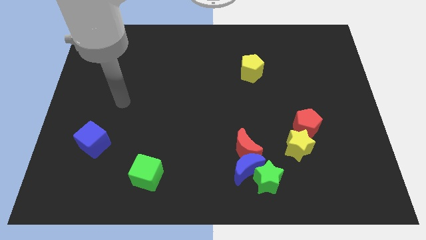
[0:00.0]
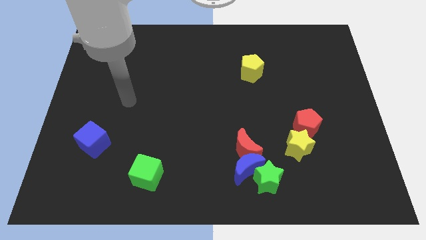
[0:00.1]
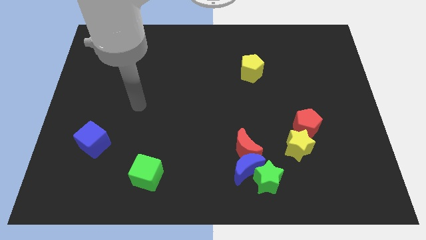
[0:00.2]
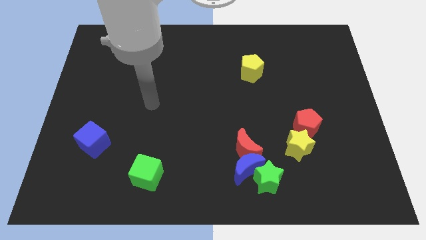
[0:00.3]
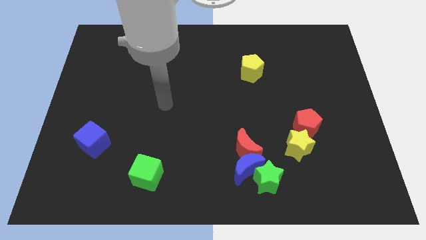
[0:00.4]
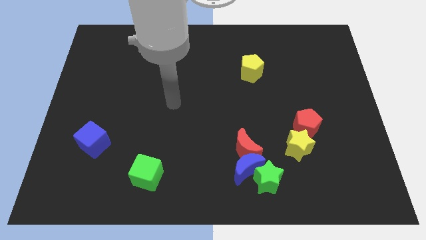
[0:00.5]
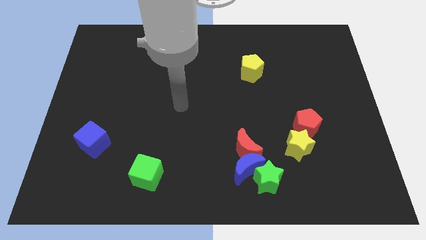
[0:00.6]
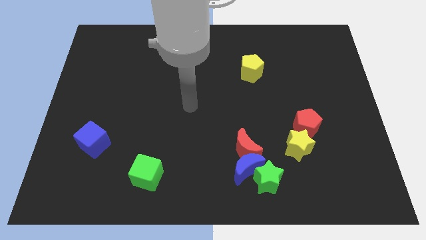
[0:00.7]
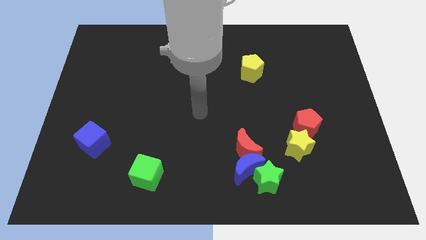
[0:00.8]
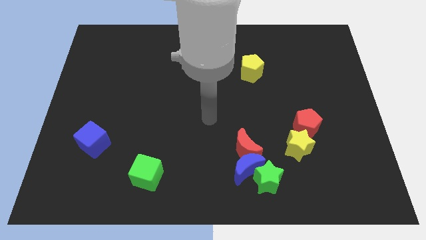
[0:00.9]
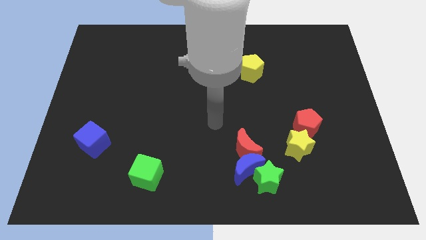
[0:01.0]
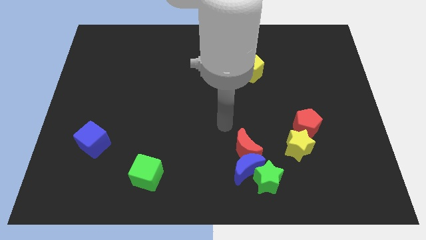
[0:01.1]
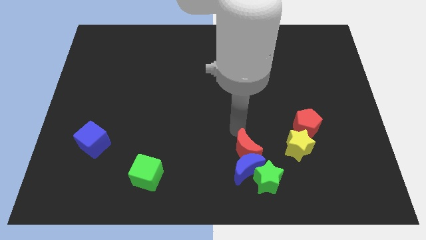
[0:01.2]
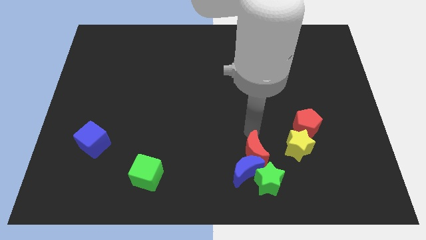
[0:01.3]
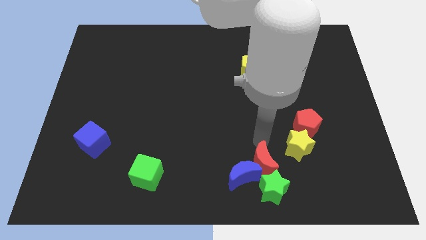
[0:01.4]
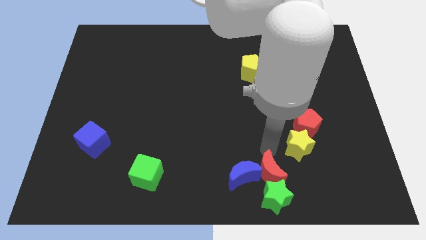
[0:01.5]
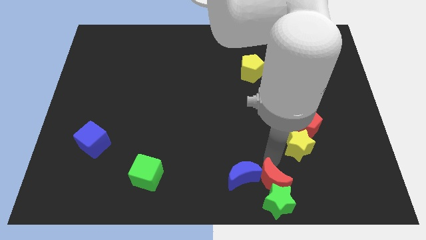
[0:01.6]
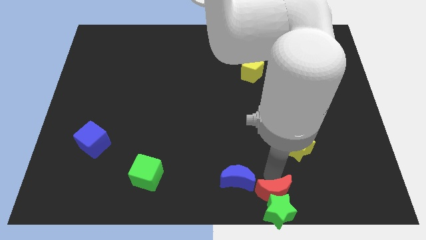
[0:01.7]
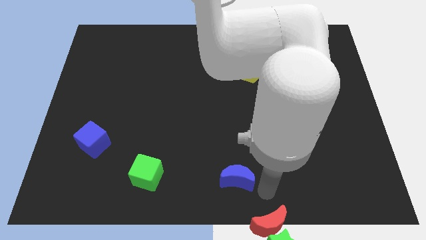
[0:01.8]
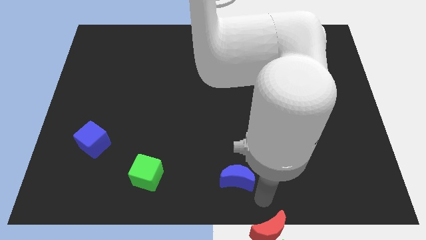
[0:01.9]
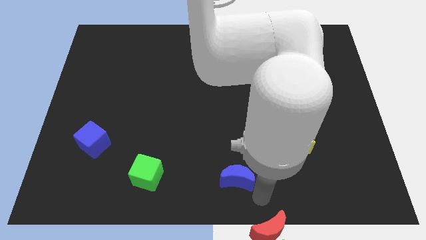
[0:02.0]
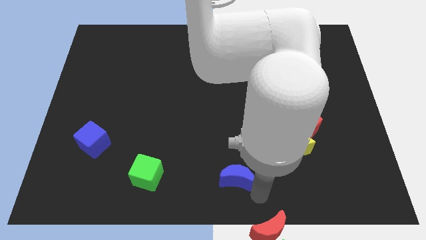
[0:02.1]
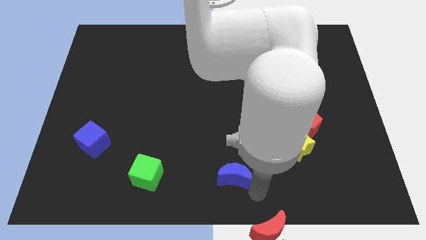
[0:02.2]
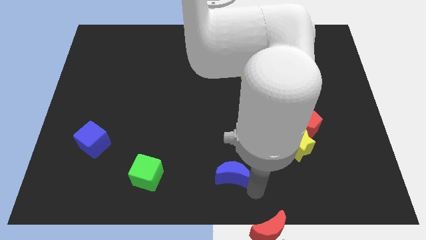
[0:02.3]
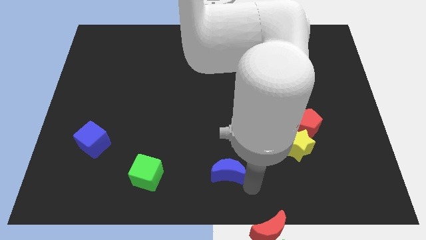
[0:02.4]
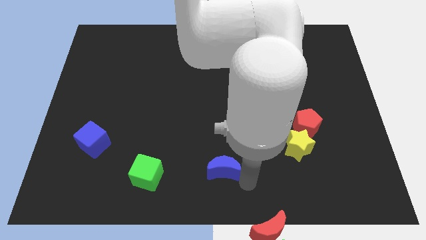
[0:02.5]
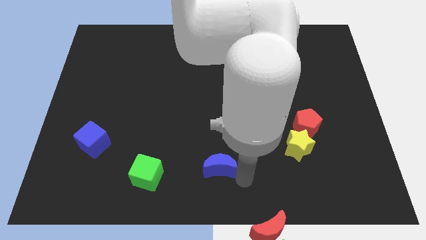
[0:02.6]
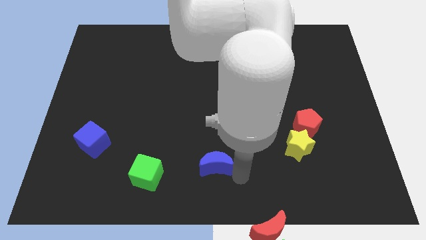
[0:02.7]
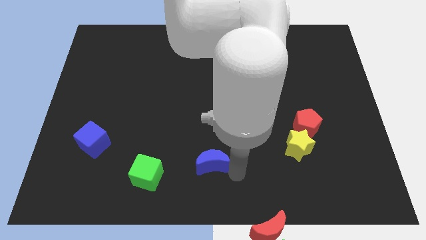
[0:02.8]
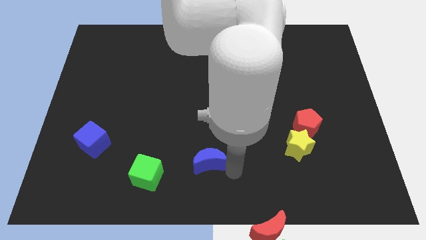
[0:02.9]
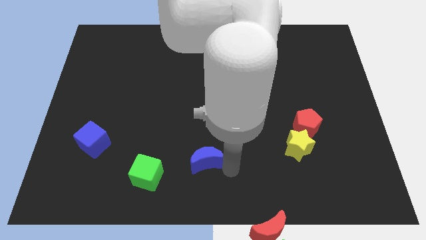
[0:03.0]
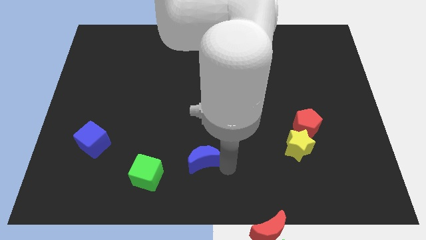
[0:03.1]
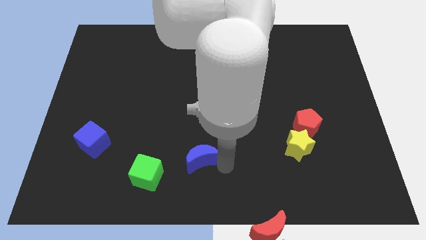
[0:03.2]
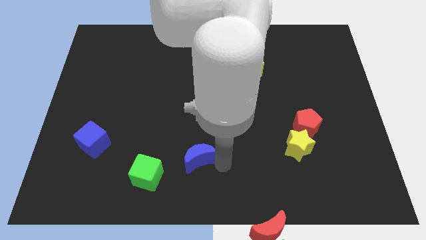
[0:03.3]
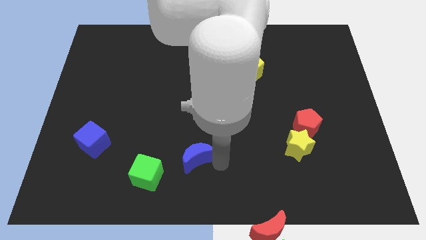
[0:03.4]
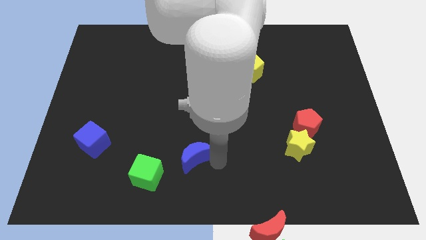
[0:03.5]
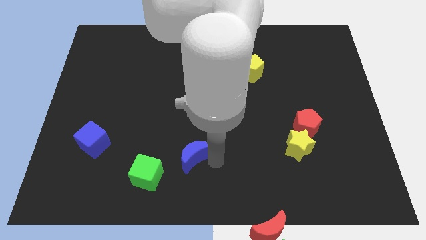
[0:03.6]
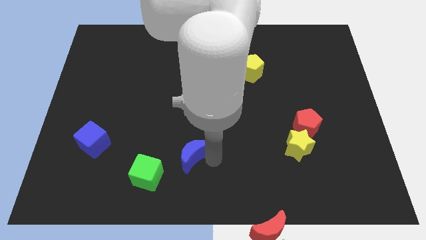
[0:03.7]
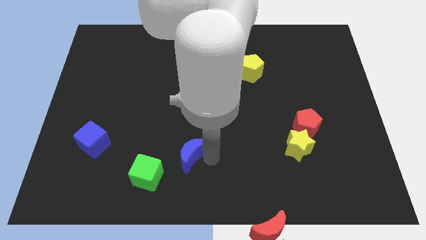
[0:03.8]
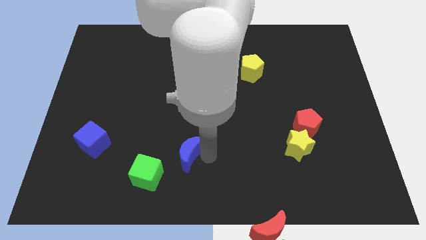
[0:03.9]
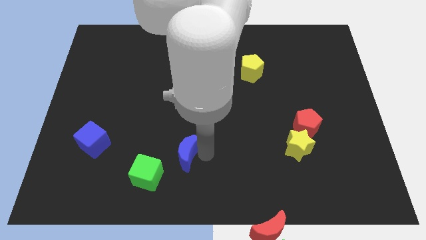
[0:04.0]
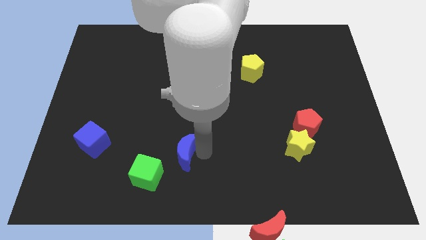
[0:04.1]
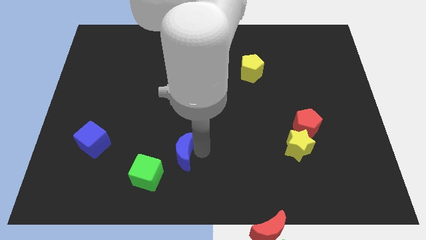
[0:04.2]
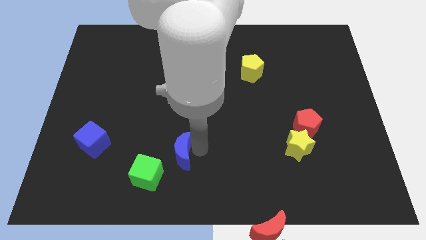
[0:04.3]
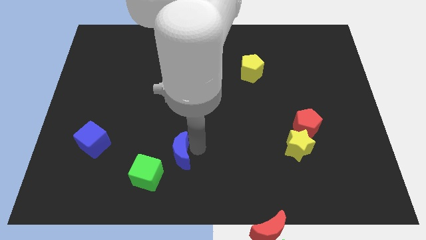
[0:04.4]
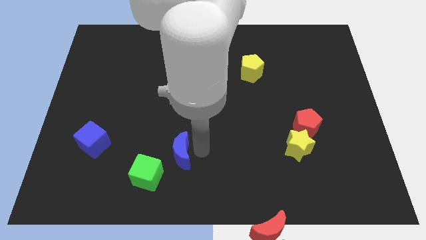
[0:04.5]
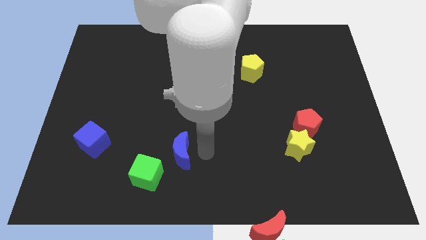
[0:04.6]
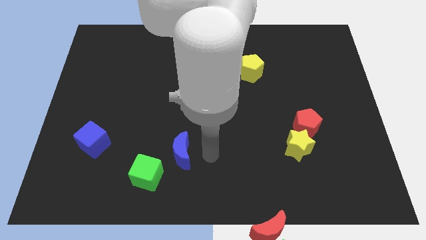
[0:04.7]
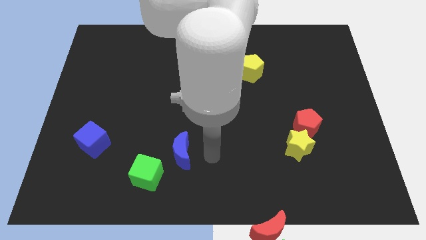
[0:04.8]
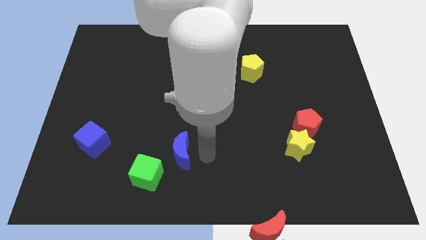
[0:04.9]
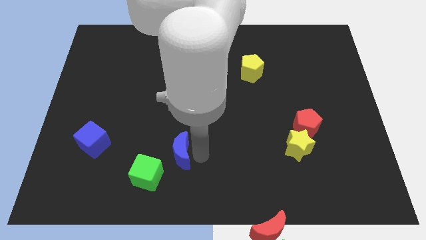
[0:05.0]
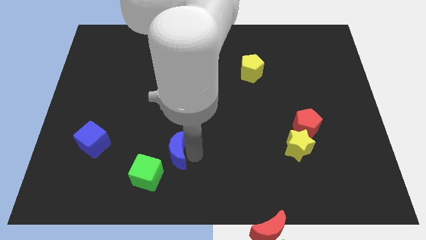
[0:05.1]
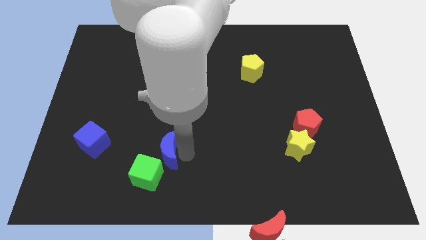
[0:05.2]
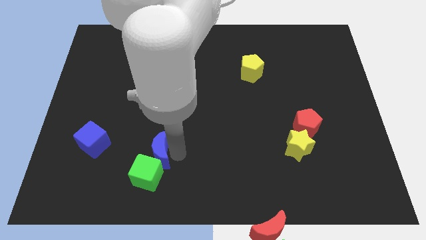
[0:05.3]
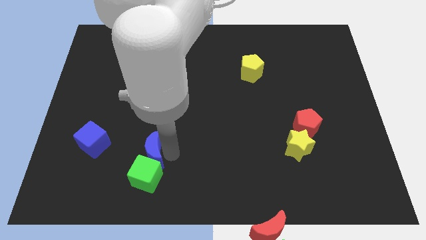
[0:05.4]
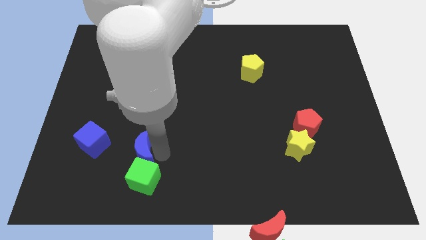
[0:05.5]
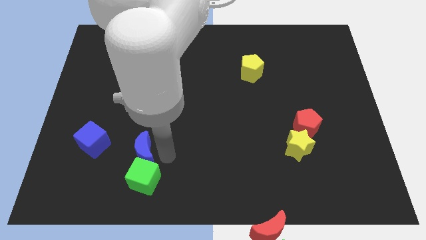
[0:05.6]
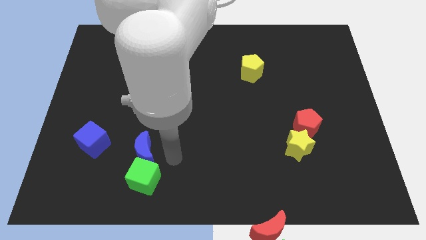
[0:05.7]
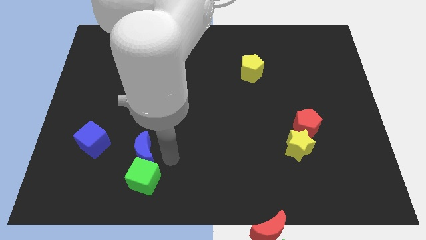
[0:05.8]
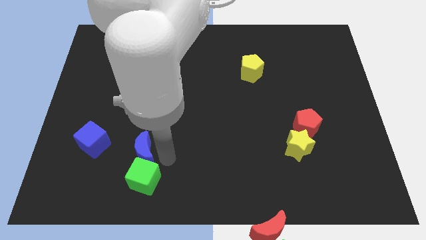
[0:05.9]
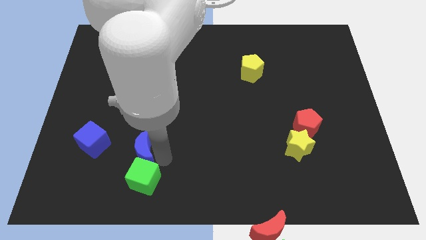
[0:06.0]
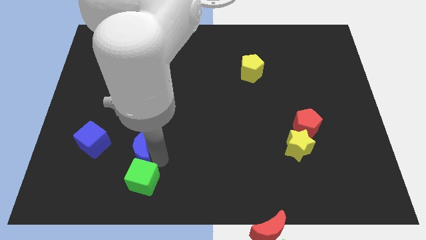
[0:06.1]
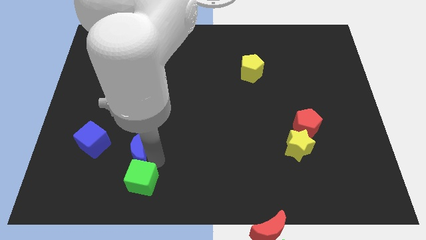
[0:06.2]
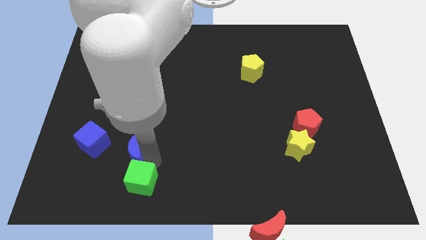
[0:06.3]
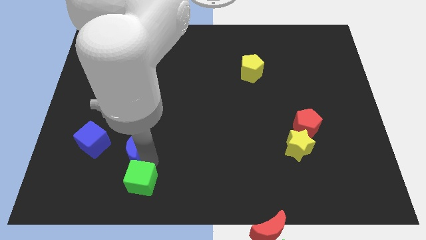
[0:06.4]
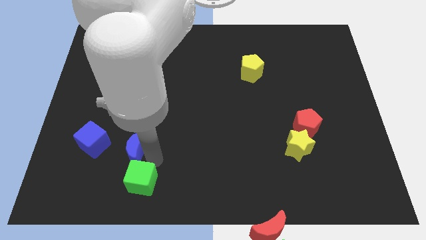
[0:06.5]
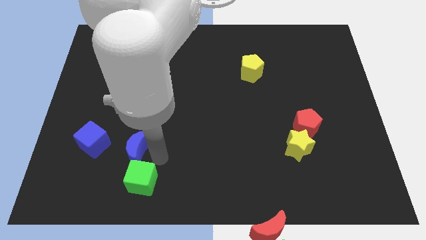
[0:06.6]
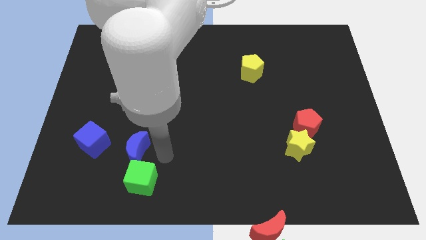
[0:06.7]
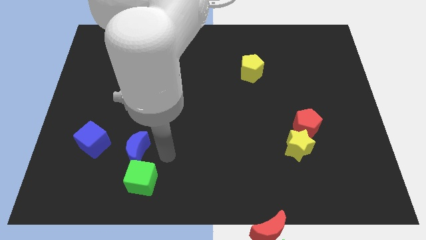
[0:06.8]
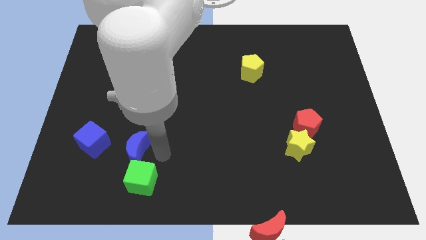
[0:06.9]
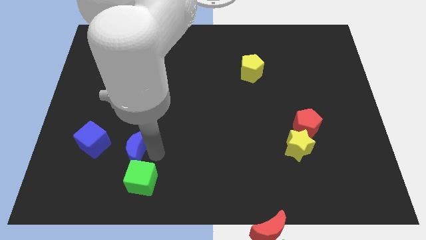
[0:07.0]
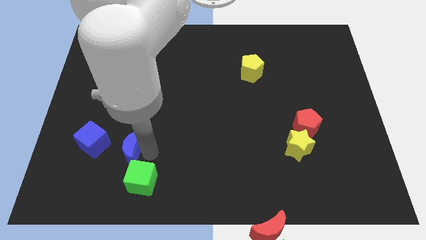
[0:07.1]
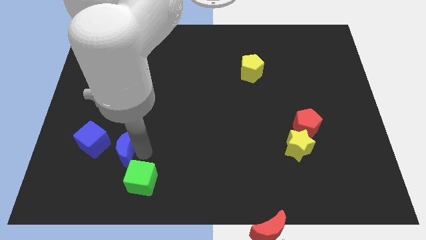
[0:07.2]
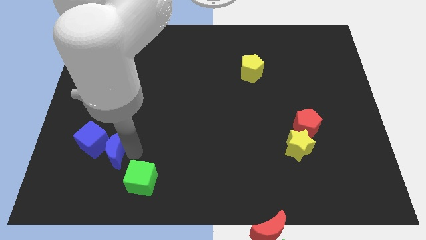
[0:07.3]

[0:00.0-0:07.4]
put the blue moon to the blue cube
